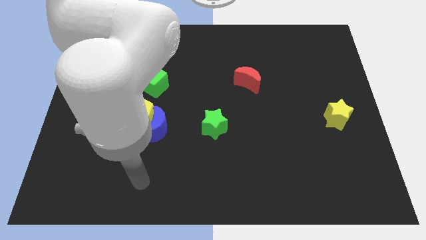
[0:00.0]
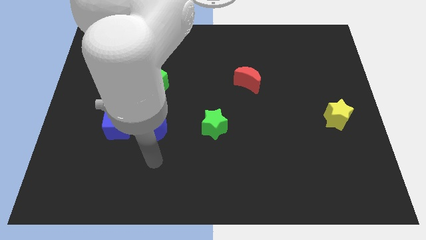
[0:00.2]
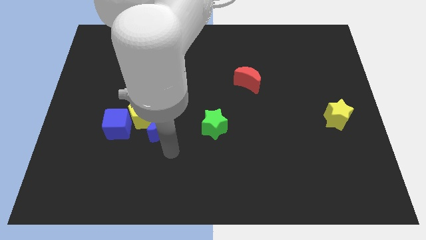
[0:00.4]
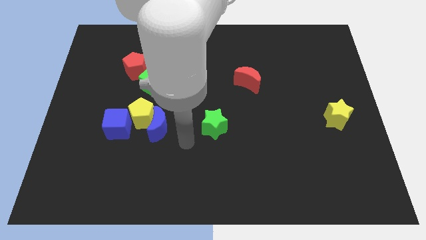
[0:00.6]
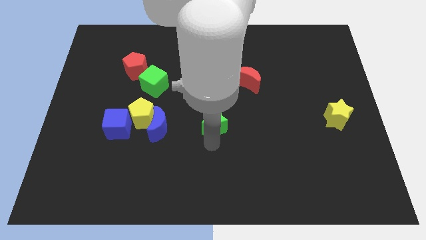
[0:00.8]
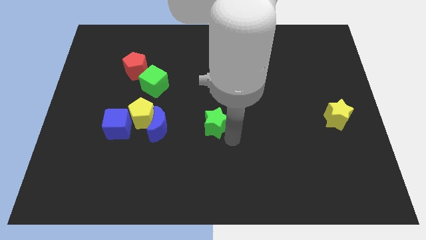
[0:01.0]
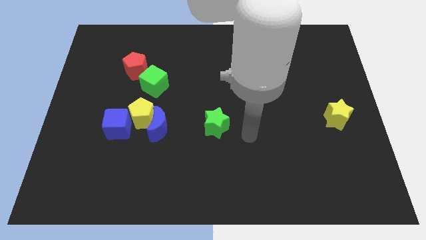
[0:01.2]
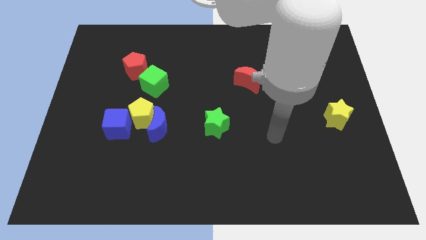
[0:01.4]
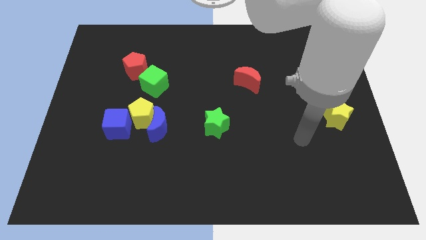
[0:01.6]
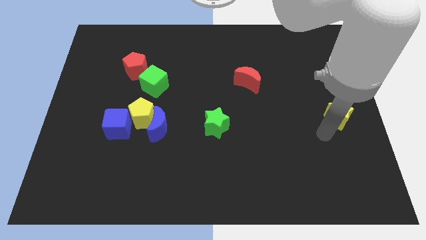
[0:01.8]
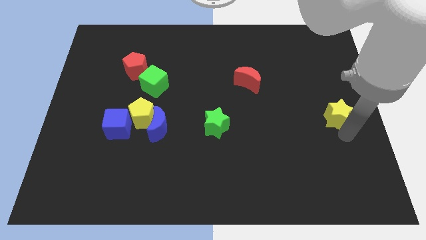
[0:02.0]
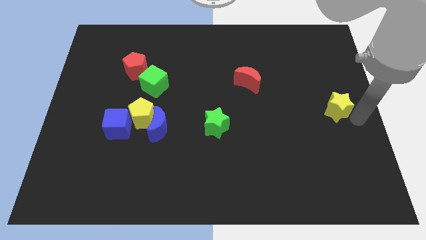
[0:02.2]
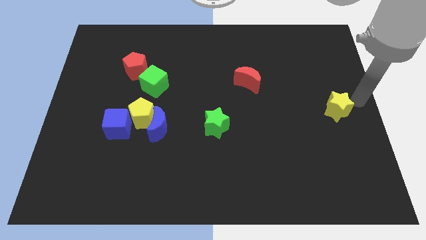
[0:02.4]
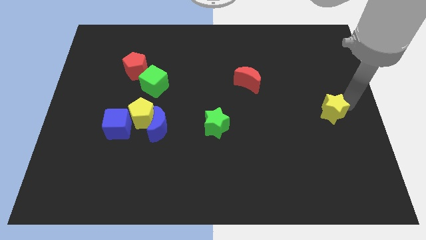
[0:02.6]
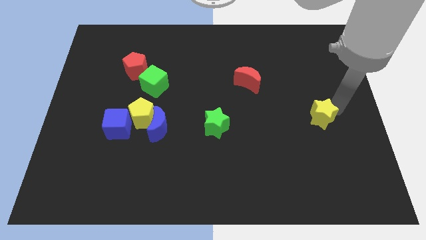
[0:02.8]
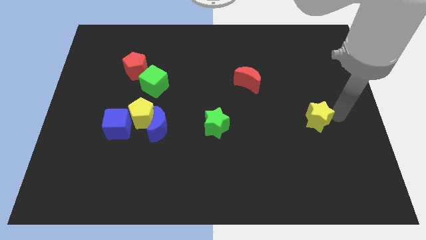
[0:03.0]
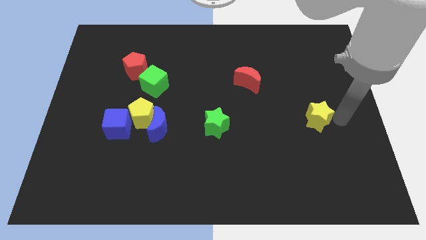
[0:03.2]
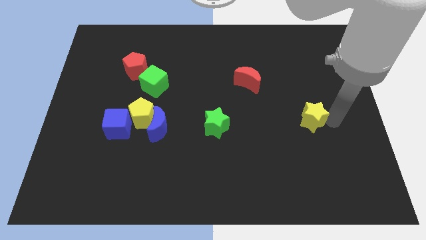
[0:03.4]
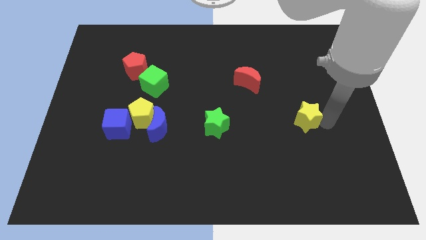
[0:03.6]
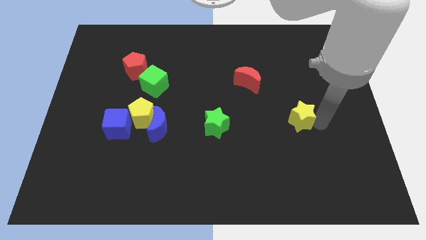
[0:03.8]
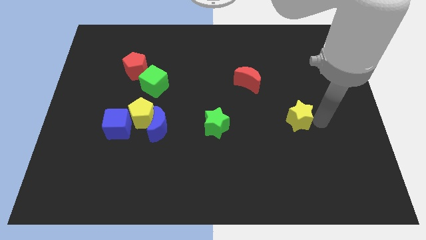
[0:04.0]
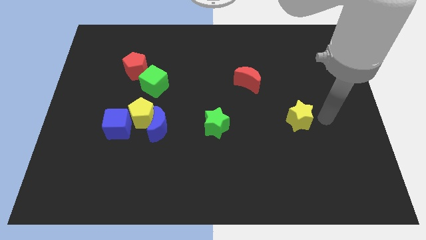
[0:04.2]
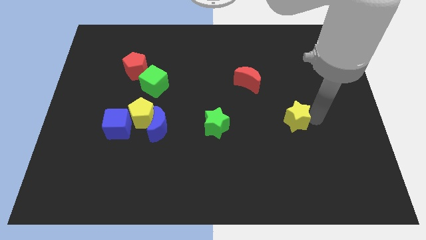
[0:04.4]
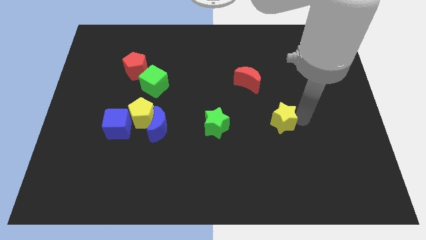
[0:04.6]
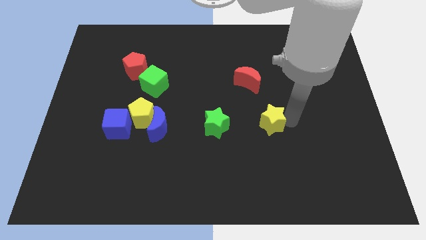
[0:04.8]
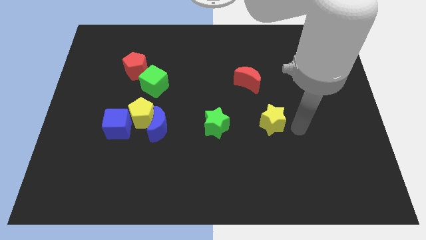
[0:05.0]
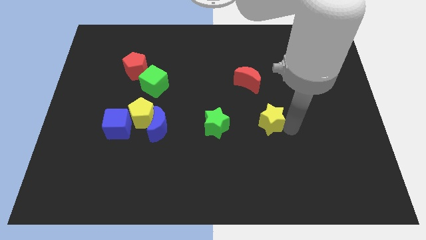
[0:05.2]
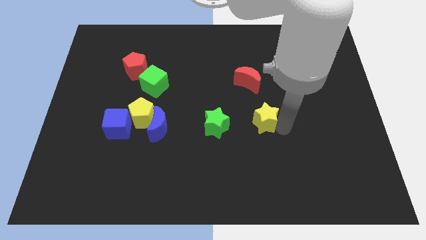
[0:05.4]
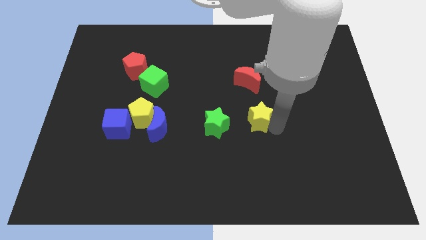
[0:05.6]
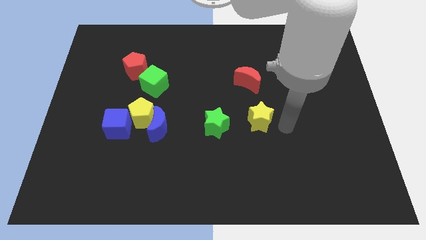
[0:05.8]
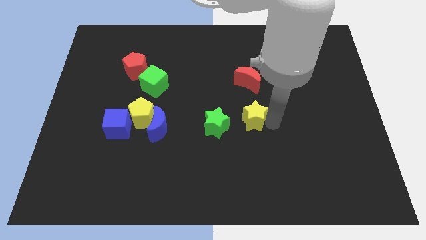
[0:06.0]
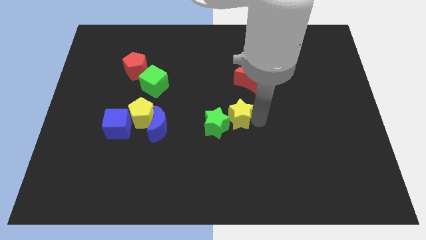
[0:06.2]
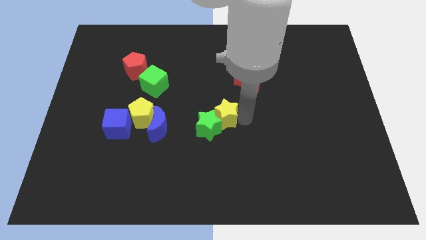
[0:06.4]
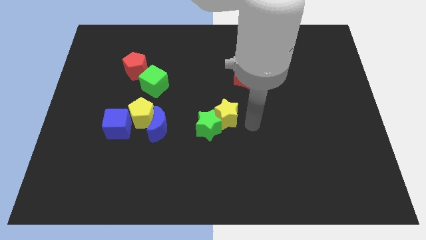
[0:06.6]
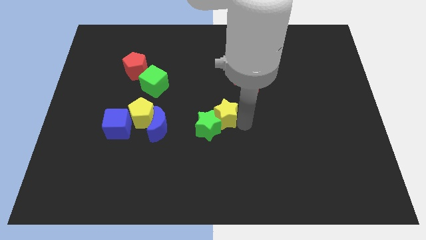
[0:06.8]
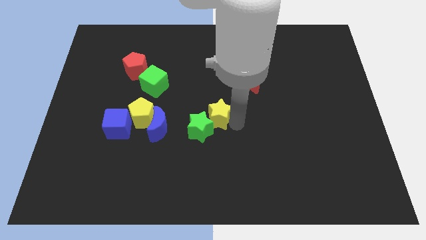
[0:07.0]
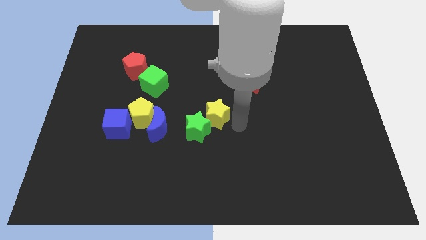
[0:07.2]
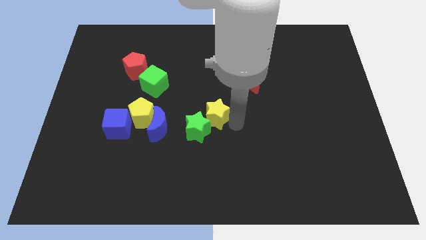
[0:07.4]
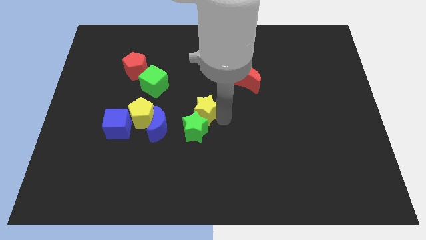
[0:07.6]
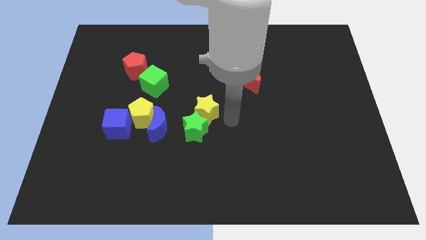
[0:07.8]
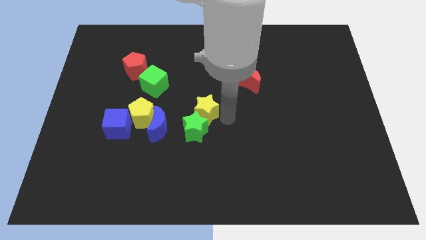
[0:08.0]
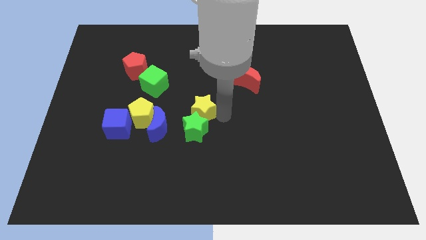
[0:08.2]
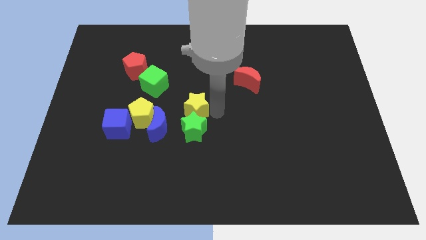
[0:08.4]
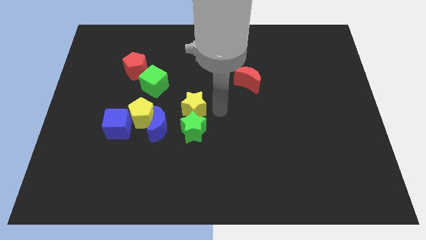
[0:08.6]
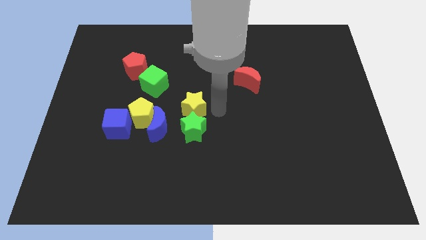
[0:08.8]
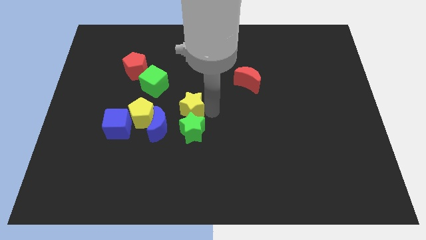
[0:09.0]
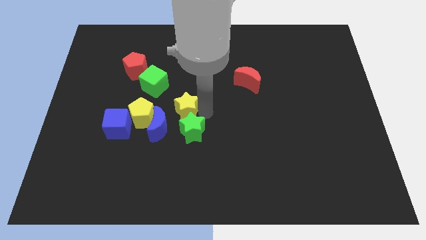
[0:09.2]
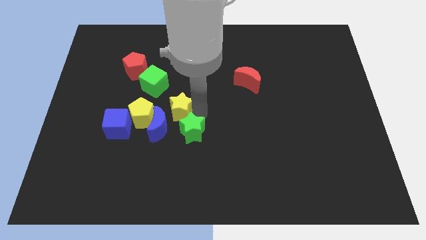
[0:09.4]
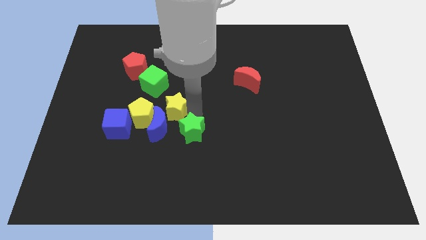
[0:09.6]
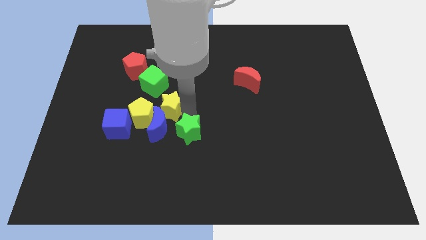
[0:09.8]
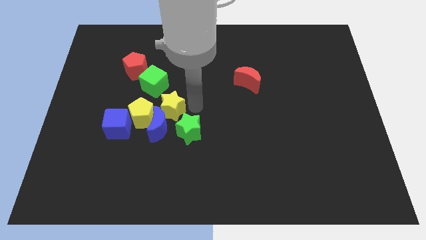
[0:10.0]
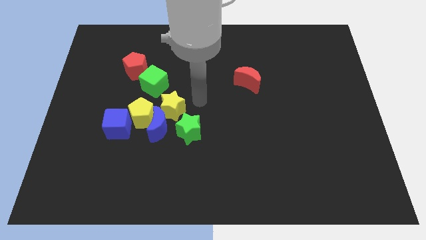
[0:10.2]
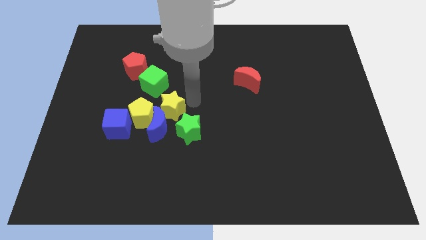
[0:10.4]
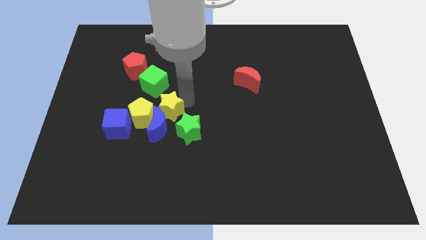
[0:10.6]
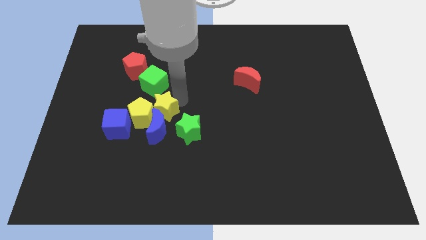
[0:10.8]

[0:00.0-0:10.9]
slide the yellow star to the yellow pentagon

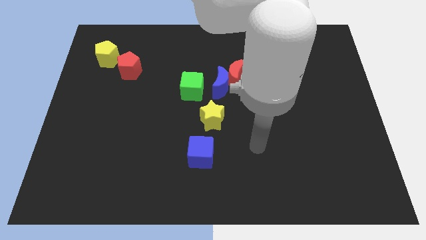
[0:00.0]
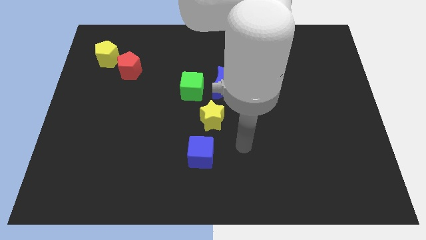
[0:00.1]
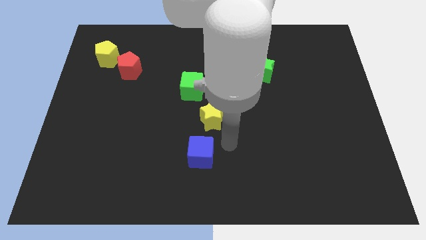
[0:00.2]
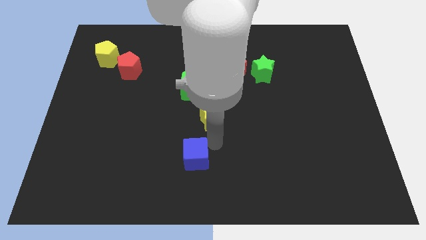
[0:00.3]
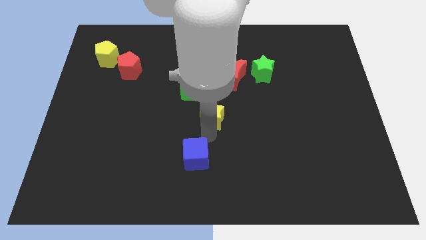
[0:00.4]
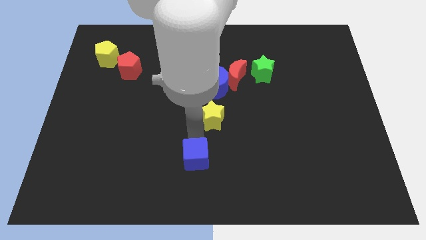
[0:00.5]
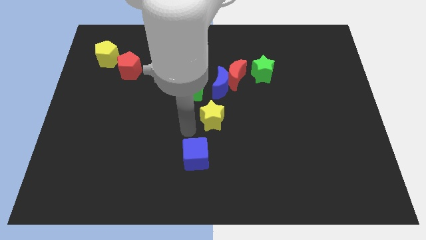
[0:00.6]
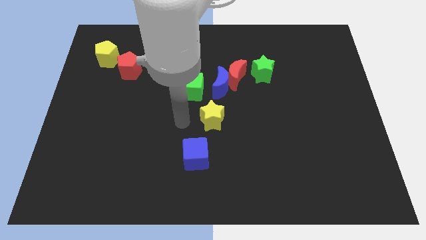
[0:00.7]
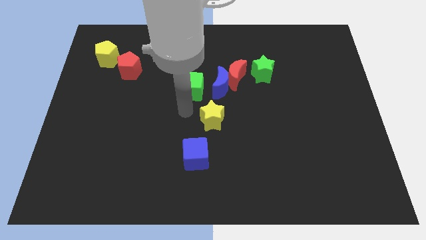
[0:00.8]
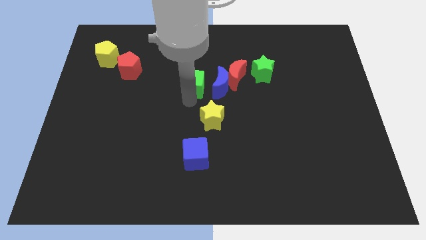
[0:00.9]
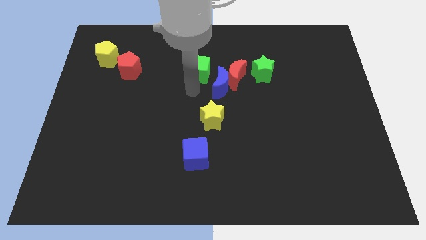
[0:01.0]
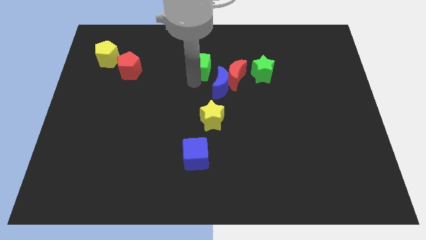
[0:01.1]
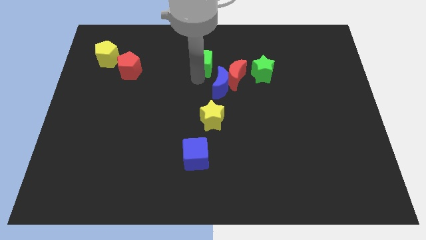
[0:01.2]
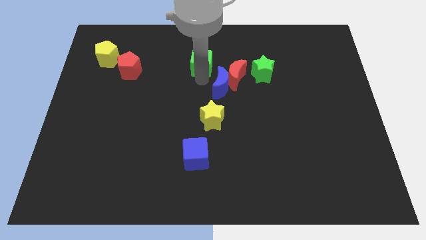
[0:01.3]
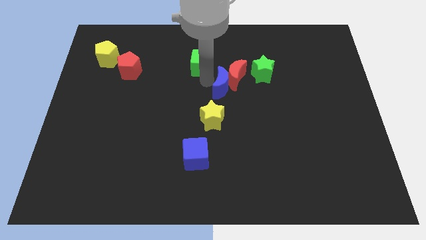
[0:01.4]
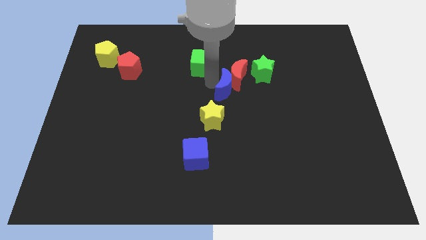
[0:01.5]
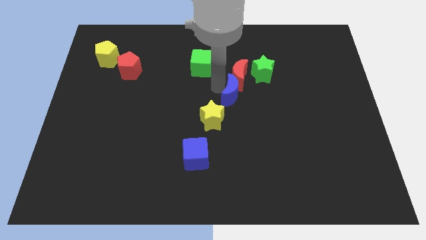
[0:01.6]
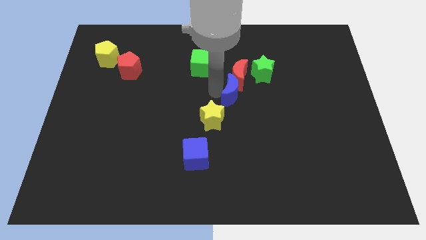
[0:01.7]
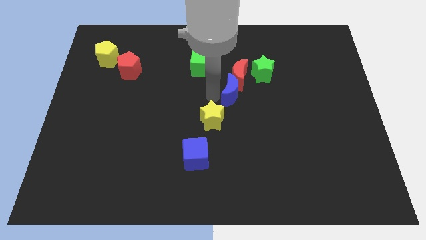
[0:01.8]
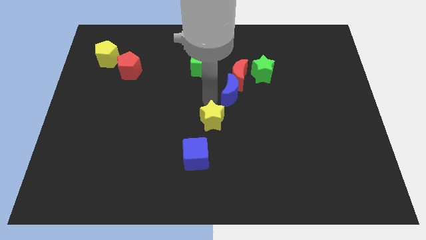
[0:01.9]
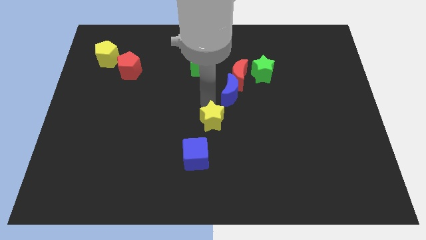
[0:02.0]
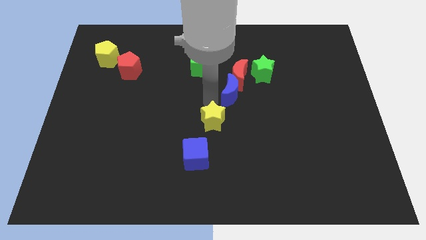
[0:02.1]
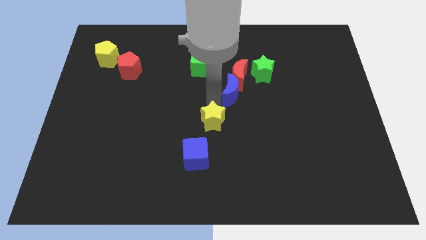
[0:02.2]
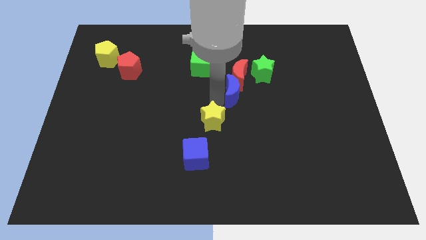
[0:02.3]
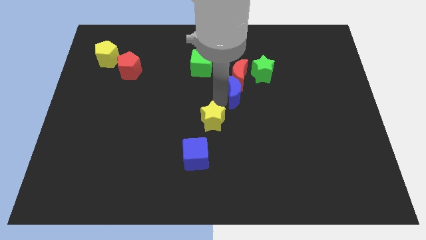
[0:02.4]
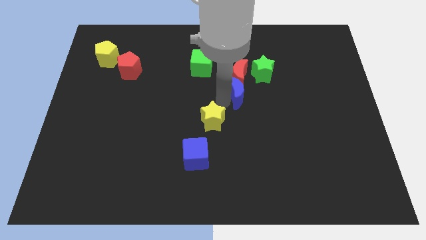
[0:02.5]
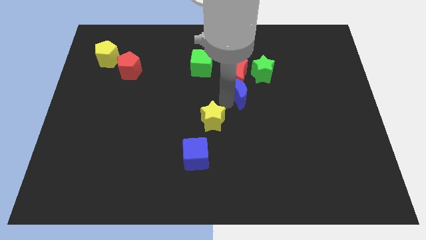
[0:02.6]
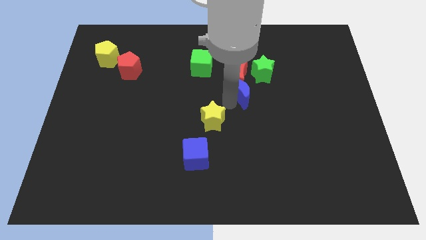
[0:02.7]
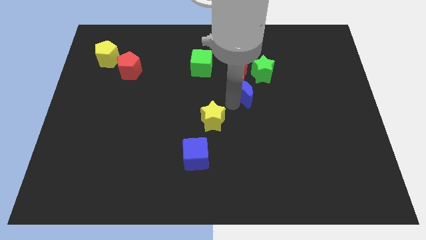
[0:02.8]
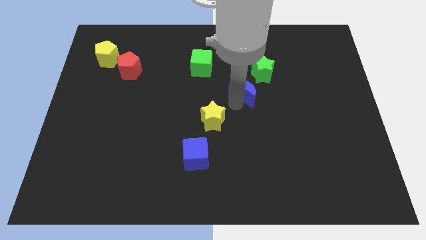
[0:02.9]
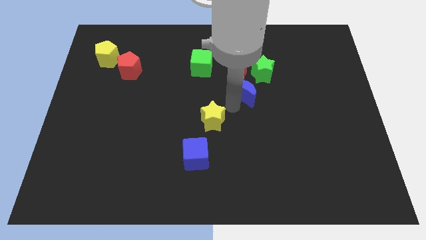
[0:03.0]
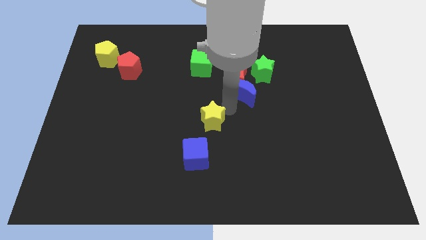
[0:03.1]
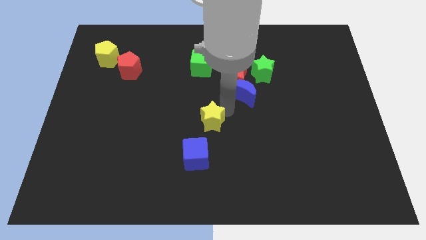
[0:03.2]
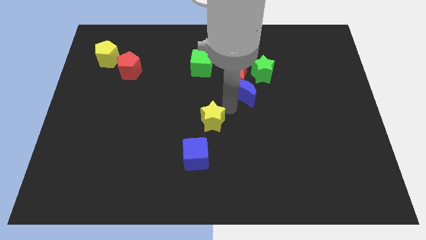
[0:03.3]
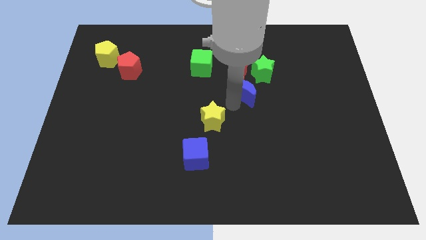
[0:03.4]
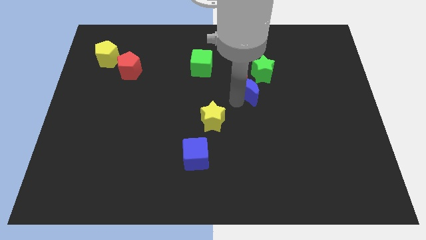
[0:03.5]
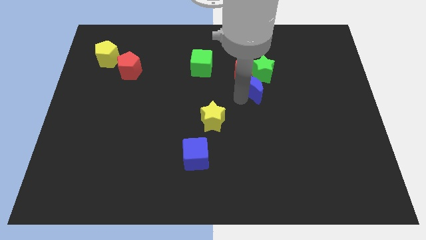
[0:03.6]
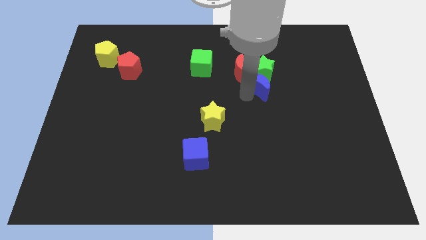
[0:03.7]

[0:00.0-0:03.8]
slide the blue moon towards the green star
